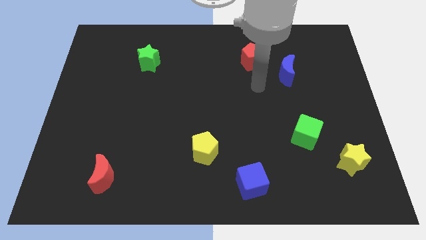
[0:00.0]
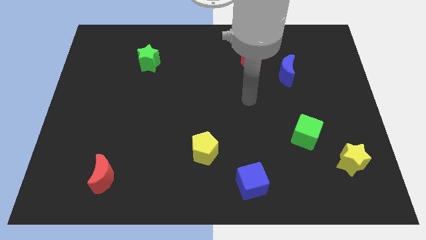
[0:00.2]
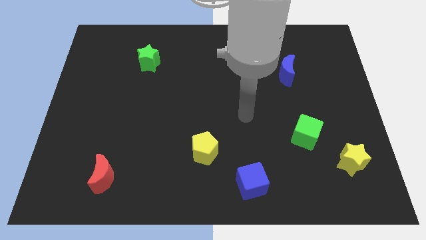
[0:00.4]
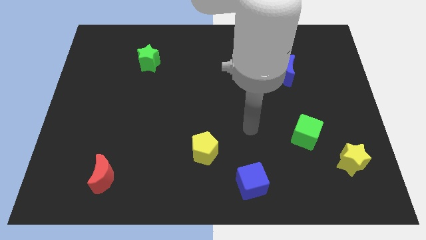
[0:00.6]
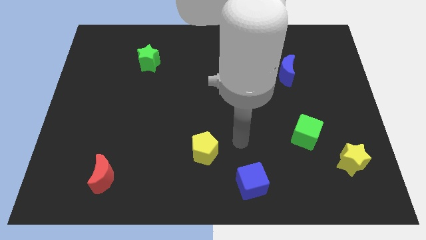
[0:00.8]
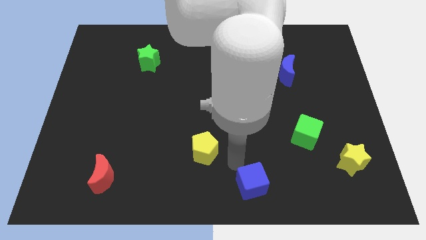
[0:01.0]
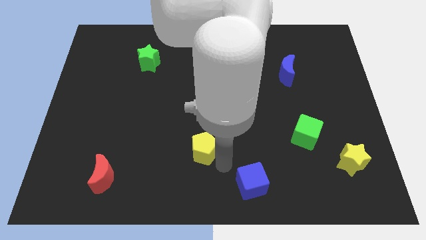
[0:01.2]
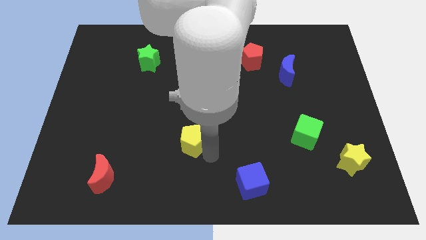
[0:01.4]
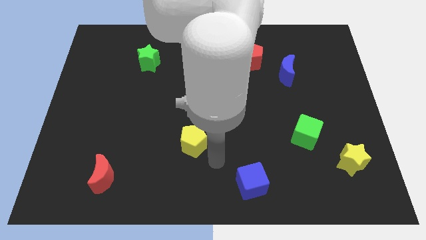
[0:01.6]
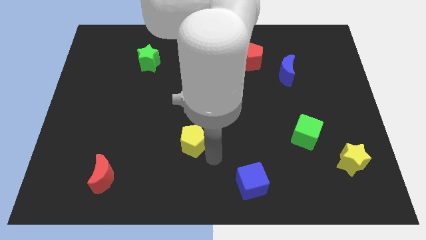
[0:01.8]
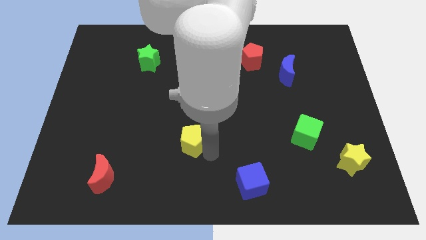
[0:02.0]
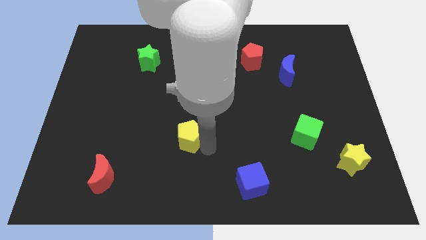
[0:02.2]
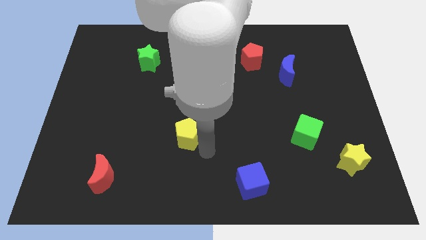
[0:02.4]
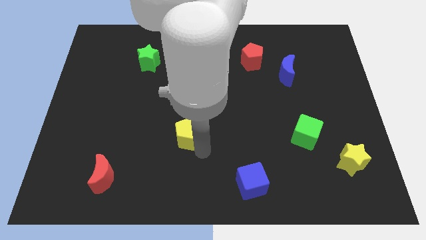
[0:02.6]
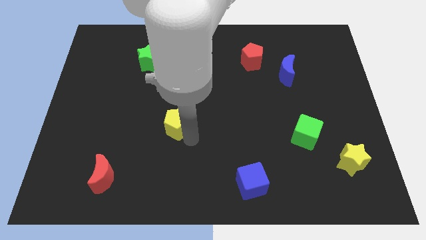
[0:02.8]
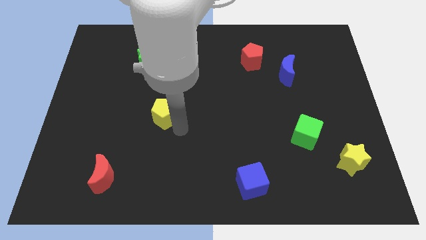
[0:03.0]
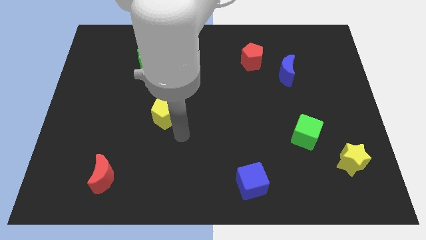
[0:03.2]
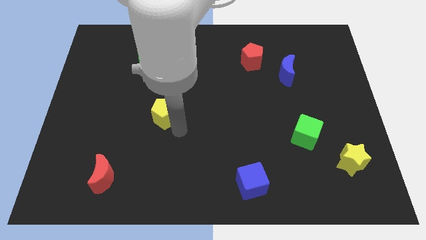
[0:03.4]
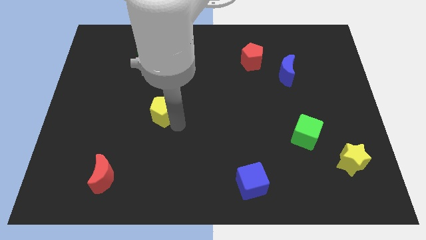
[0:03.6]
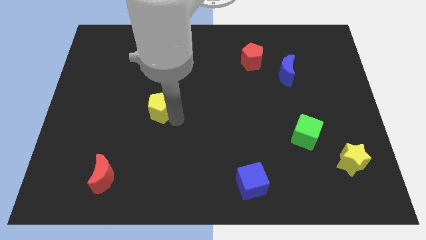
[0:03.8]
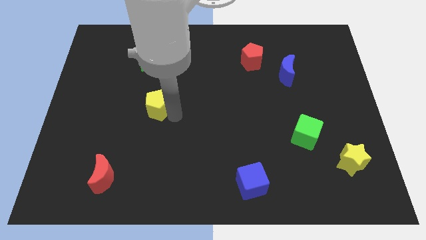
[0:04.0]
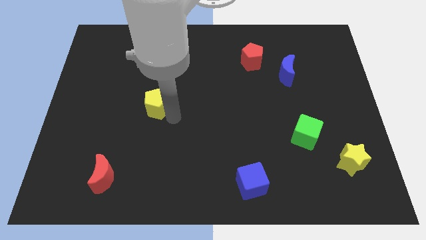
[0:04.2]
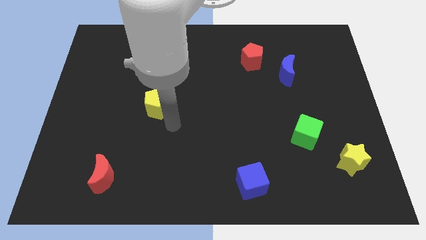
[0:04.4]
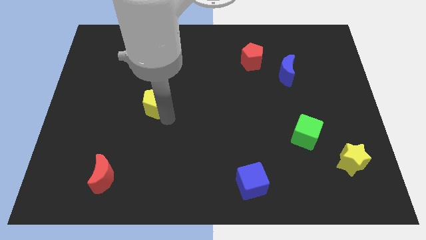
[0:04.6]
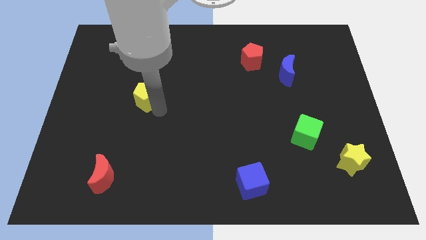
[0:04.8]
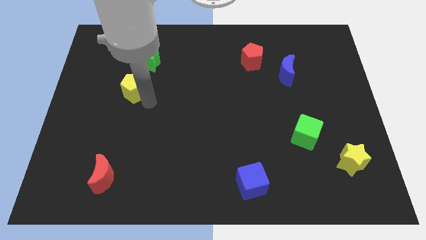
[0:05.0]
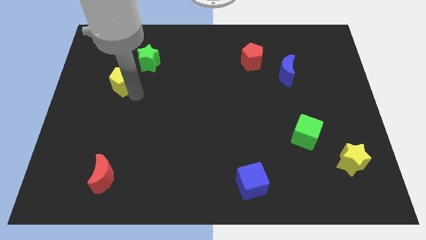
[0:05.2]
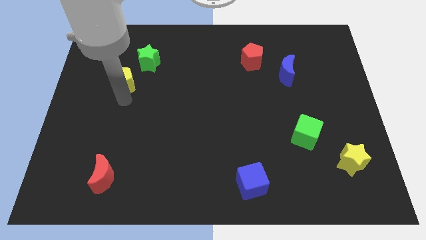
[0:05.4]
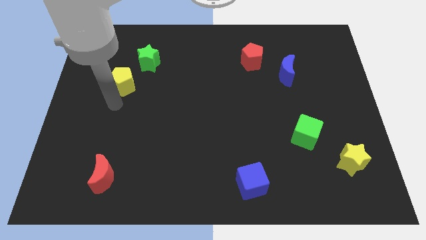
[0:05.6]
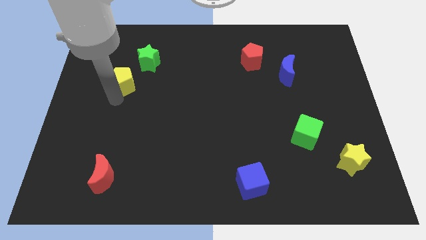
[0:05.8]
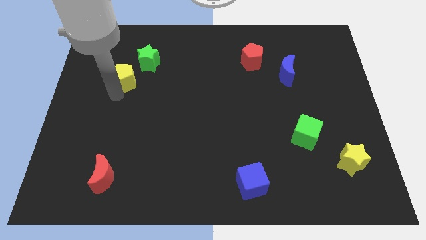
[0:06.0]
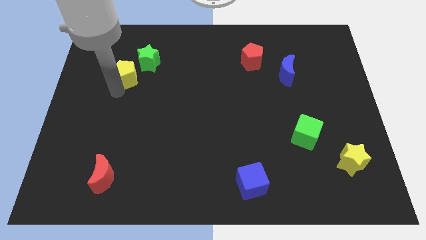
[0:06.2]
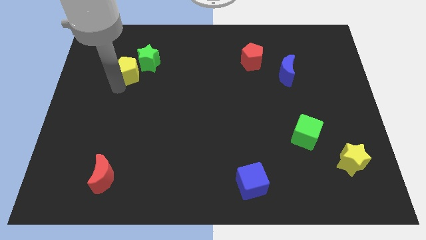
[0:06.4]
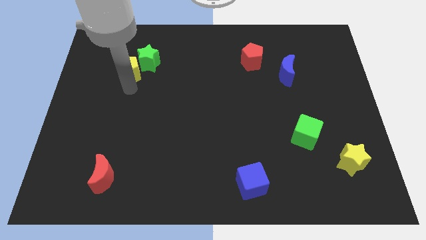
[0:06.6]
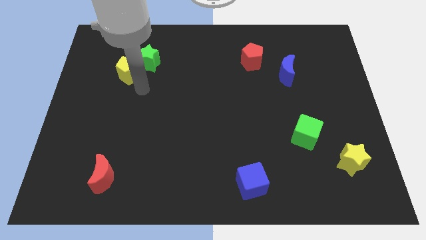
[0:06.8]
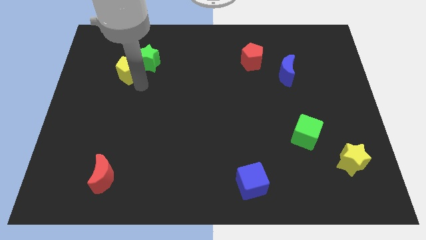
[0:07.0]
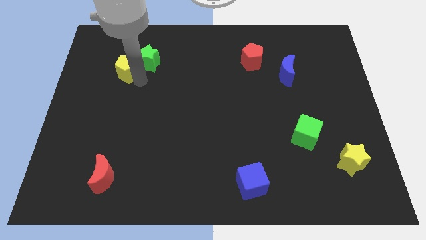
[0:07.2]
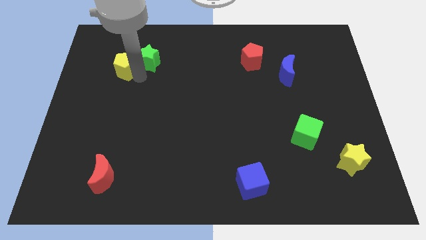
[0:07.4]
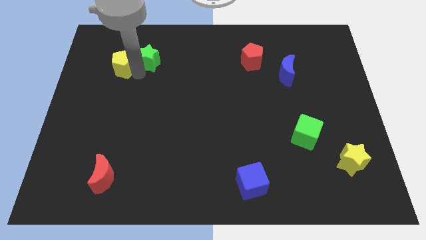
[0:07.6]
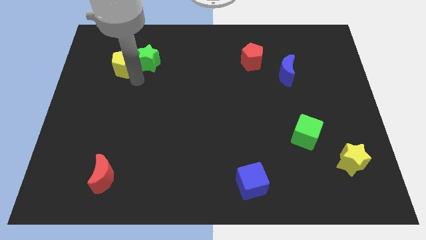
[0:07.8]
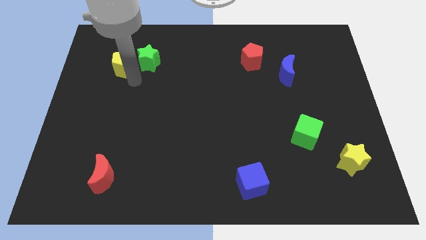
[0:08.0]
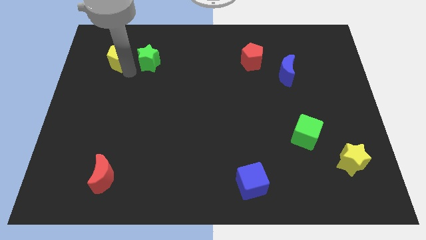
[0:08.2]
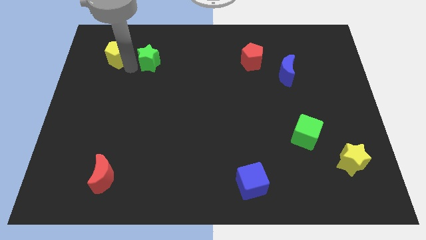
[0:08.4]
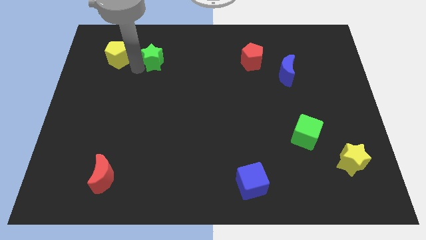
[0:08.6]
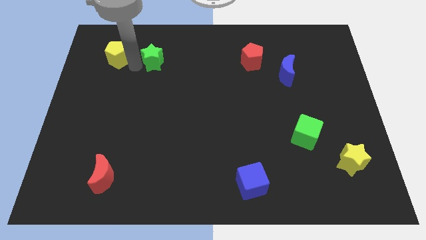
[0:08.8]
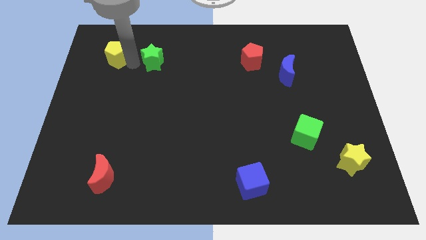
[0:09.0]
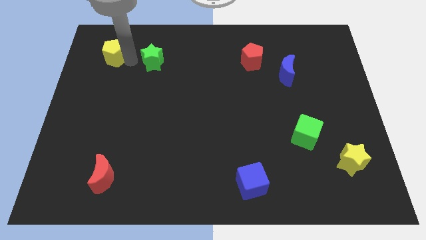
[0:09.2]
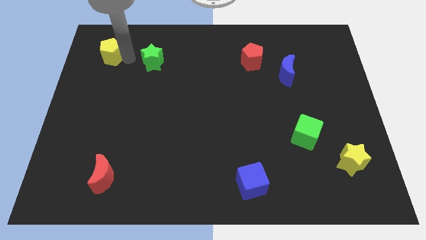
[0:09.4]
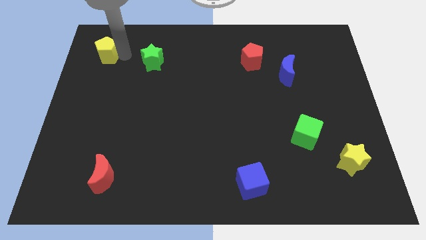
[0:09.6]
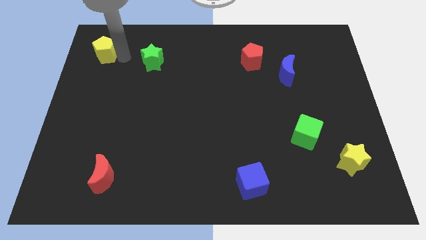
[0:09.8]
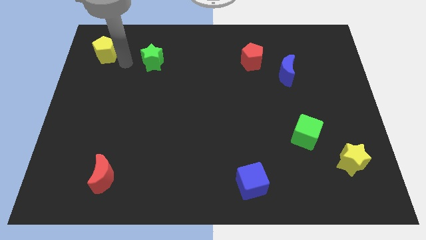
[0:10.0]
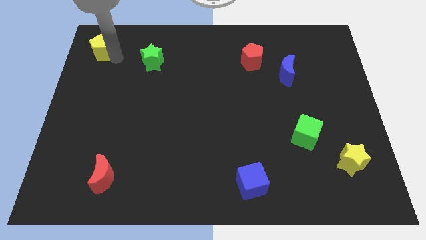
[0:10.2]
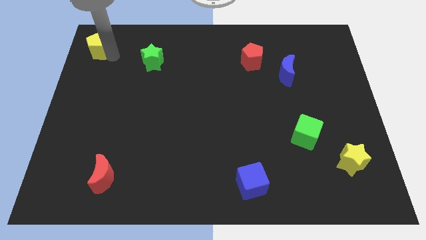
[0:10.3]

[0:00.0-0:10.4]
slide the yellow pentagon to the top left
